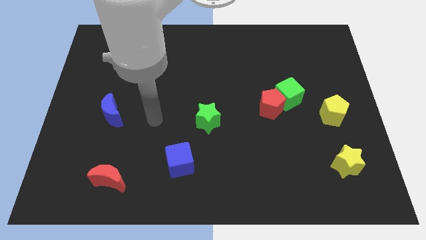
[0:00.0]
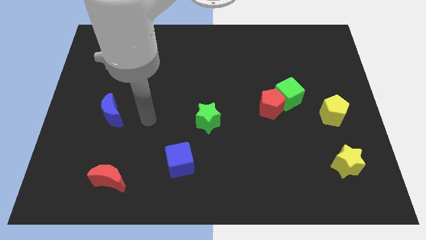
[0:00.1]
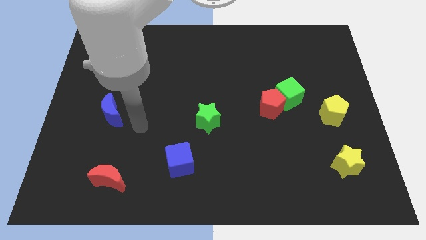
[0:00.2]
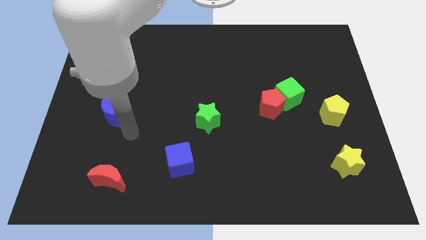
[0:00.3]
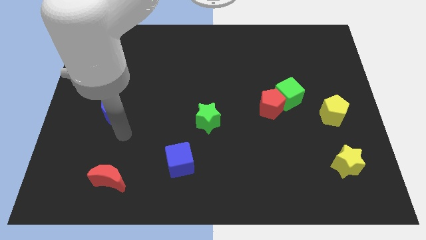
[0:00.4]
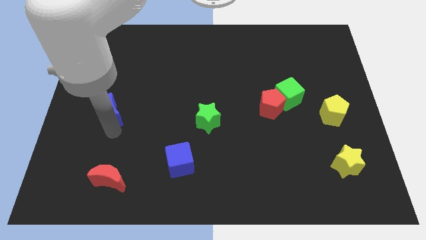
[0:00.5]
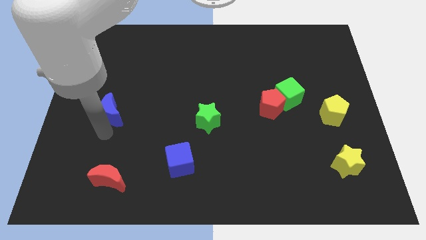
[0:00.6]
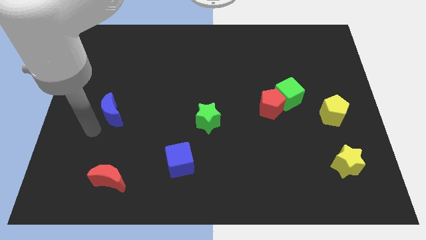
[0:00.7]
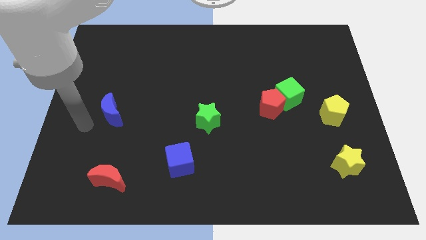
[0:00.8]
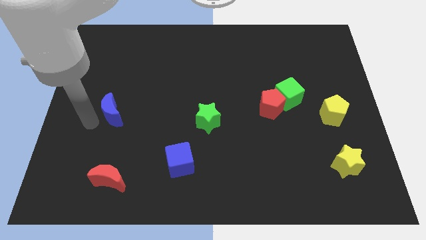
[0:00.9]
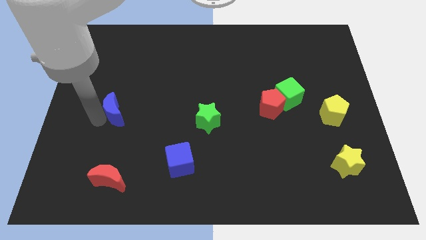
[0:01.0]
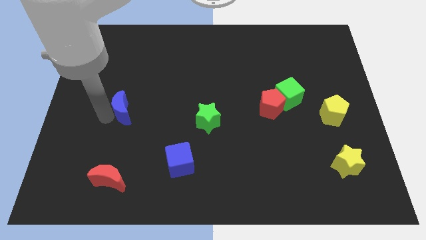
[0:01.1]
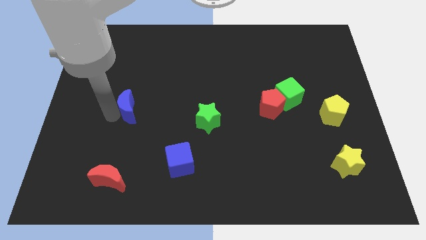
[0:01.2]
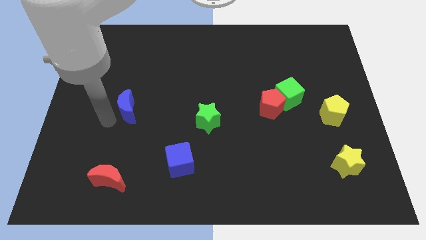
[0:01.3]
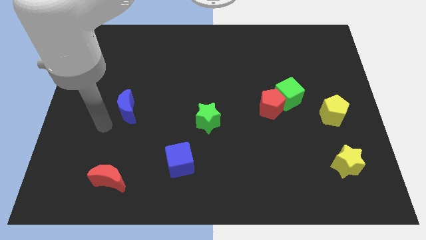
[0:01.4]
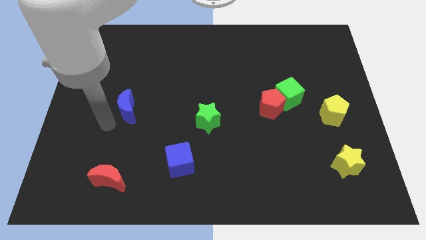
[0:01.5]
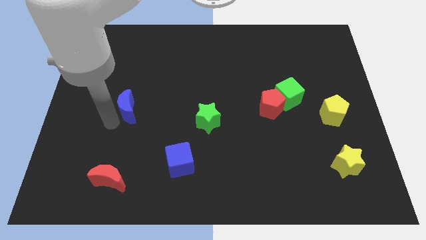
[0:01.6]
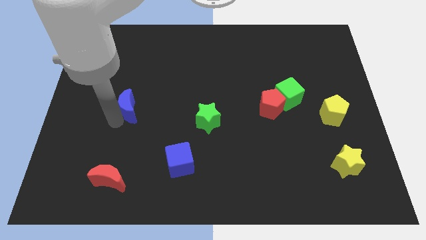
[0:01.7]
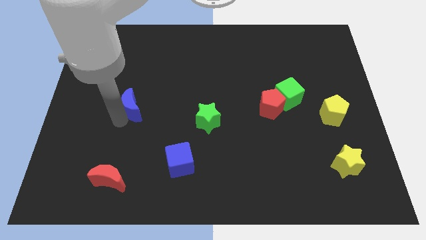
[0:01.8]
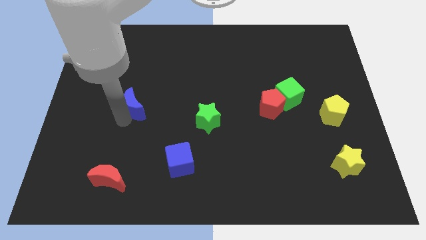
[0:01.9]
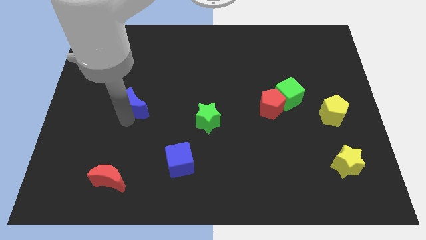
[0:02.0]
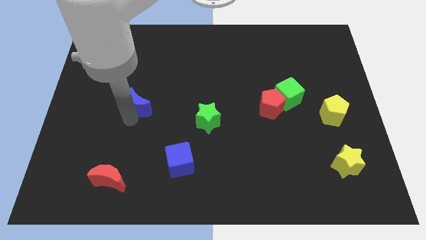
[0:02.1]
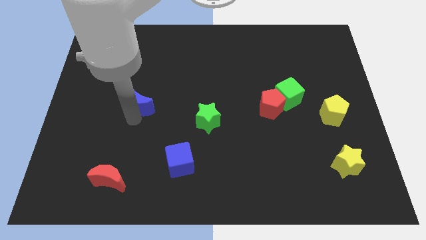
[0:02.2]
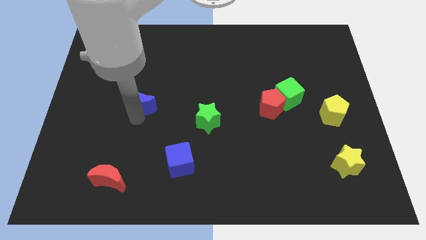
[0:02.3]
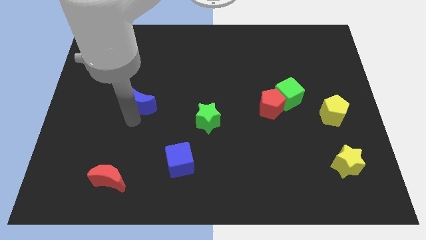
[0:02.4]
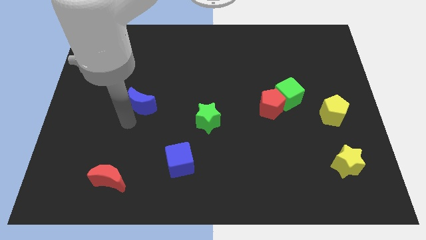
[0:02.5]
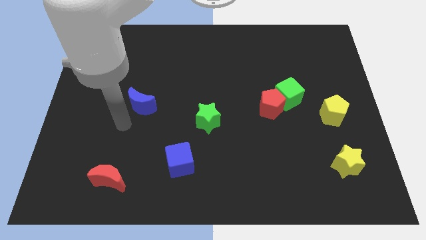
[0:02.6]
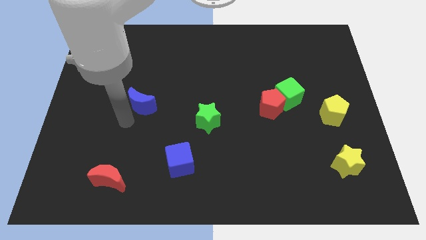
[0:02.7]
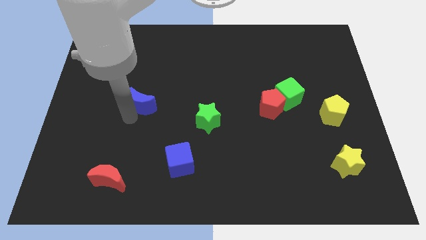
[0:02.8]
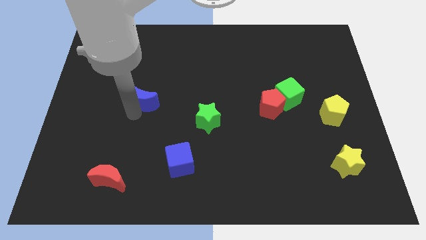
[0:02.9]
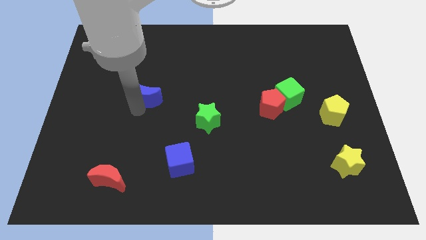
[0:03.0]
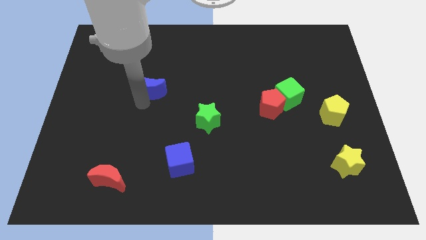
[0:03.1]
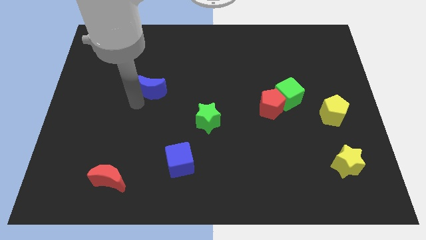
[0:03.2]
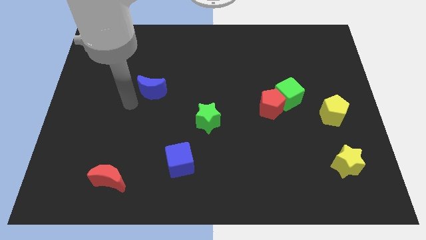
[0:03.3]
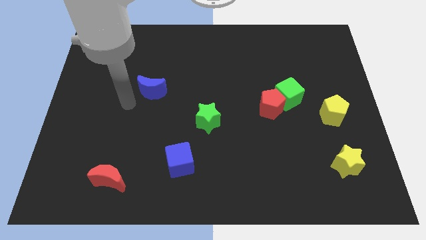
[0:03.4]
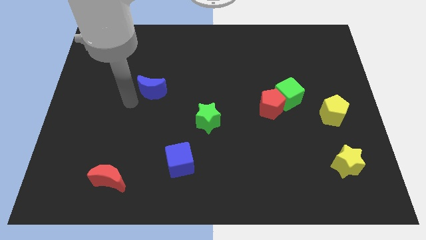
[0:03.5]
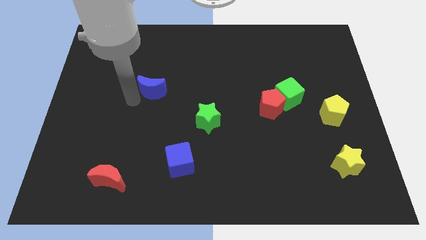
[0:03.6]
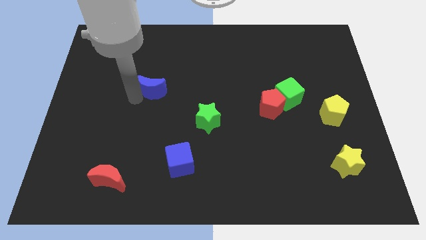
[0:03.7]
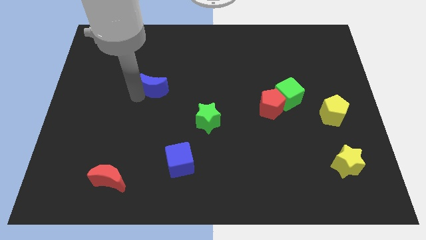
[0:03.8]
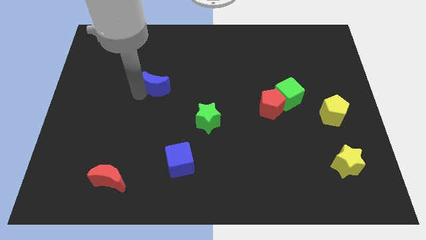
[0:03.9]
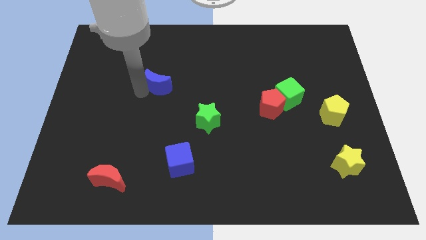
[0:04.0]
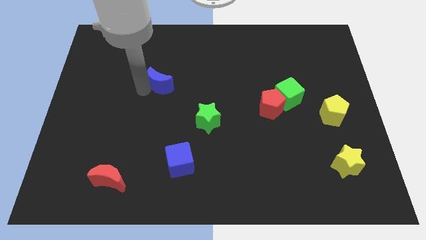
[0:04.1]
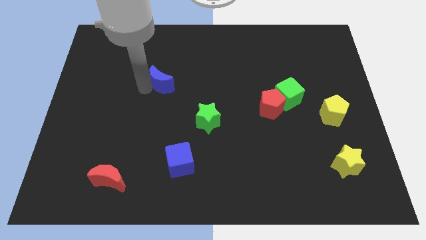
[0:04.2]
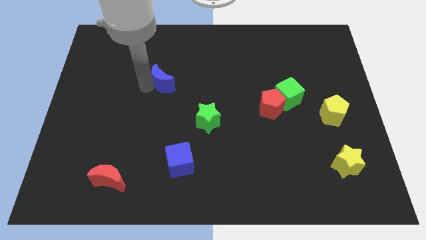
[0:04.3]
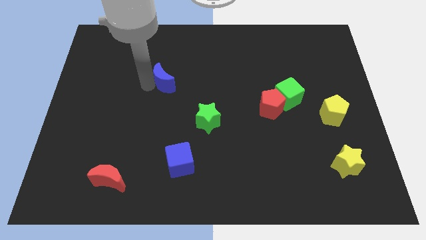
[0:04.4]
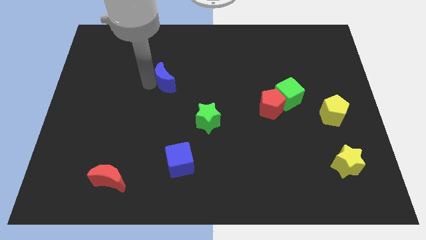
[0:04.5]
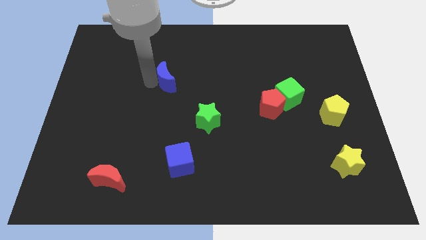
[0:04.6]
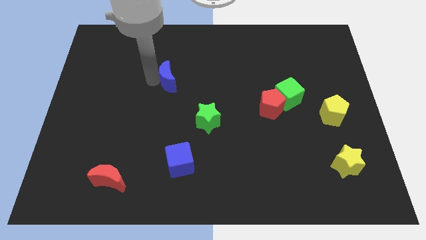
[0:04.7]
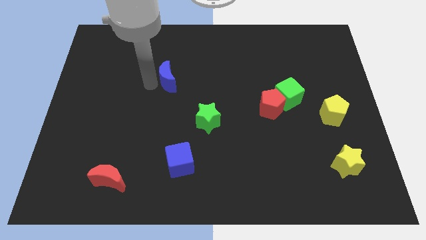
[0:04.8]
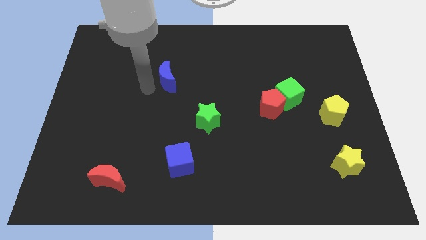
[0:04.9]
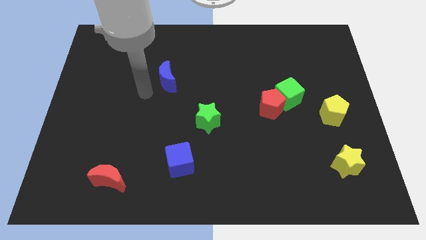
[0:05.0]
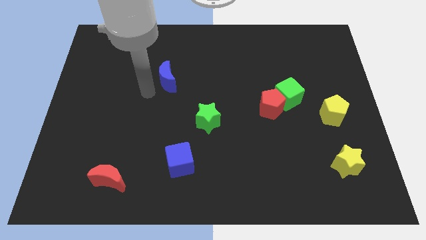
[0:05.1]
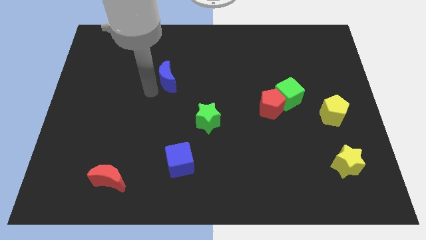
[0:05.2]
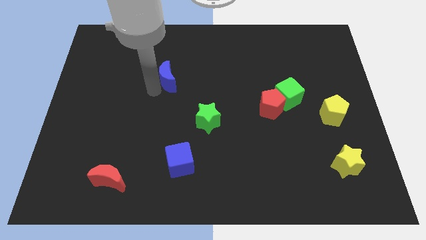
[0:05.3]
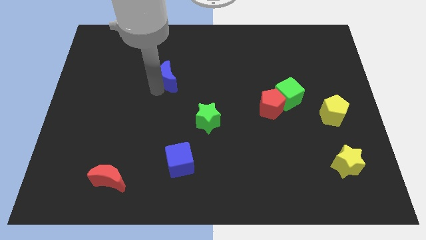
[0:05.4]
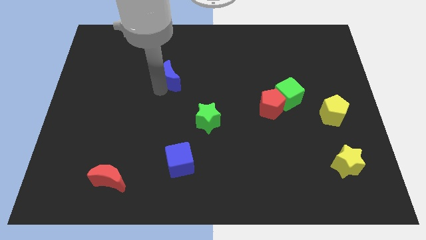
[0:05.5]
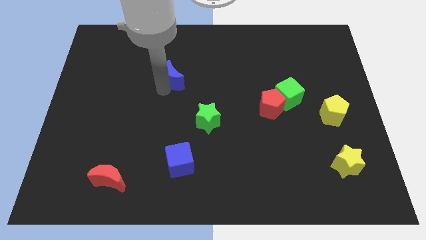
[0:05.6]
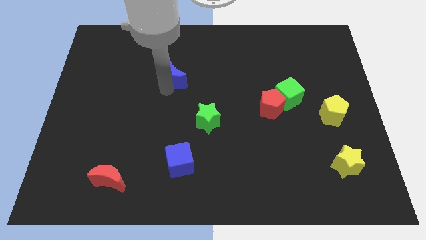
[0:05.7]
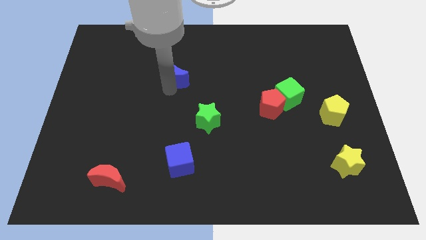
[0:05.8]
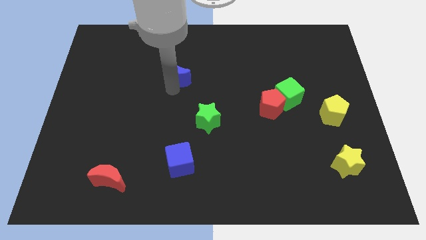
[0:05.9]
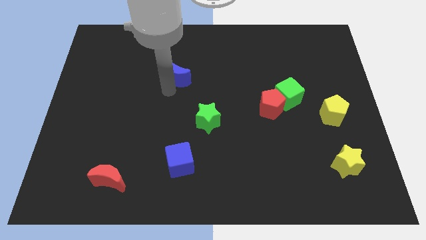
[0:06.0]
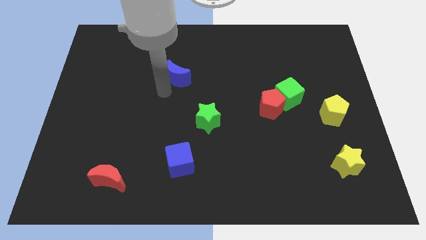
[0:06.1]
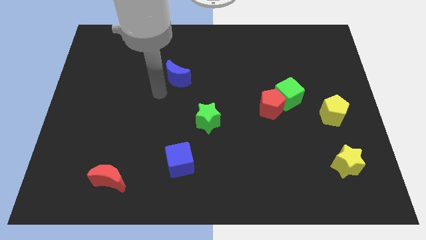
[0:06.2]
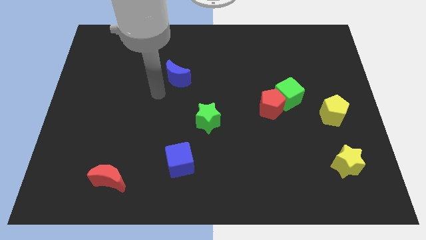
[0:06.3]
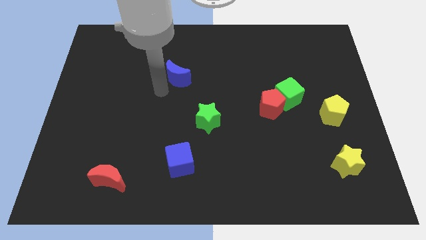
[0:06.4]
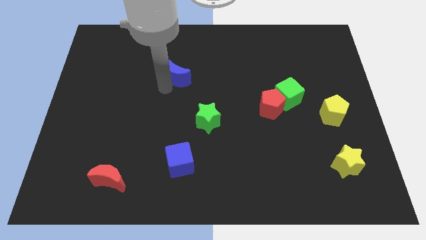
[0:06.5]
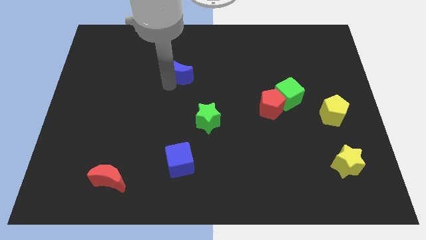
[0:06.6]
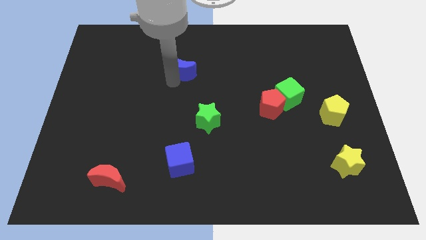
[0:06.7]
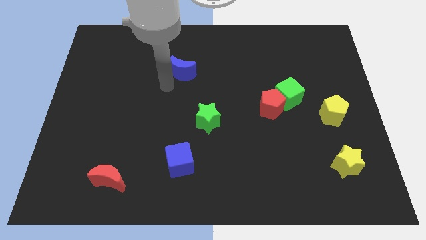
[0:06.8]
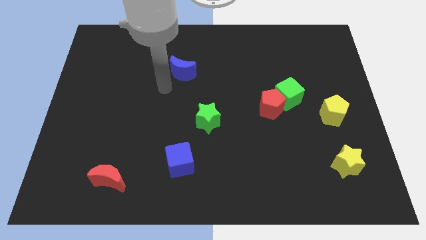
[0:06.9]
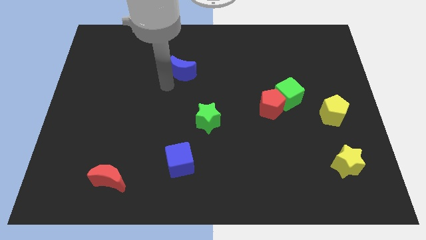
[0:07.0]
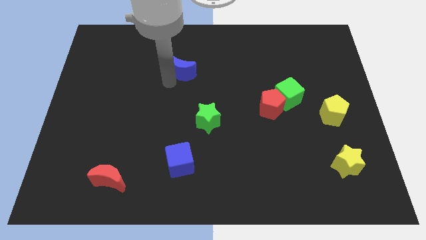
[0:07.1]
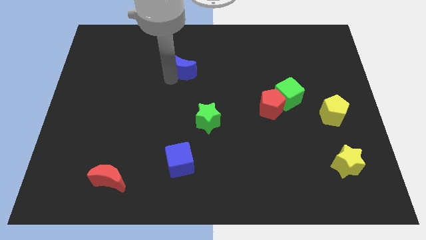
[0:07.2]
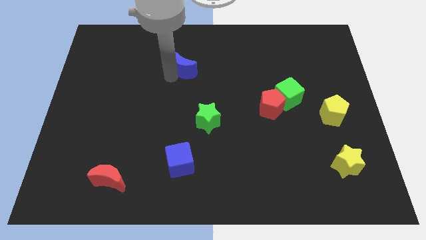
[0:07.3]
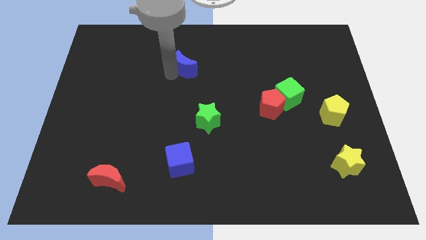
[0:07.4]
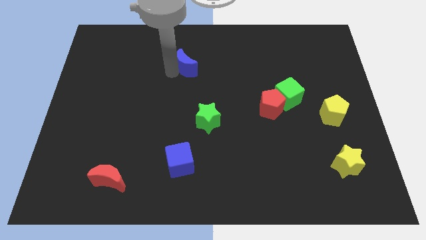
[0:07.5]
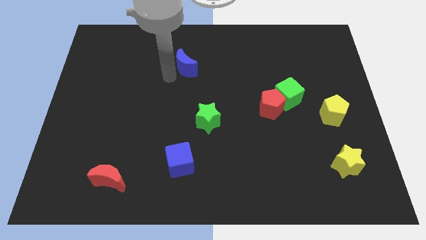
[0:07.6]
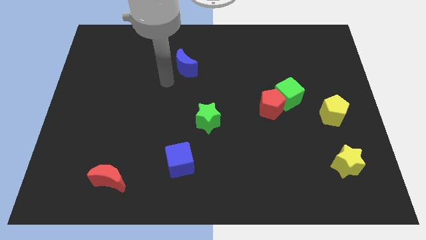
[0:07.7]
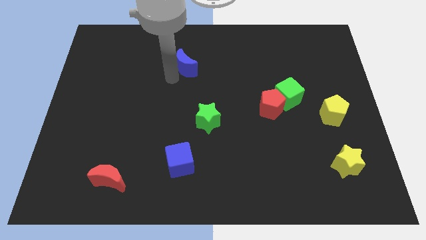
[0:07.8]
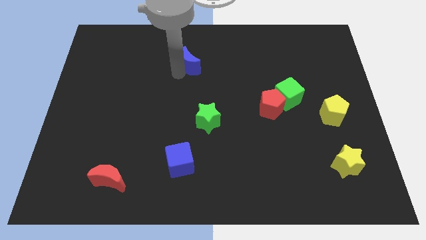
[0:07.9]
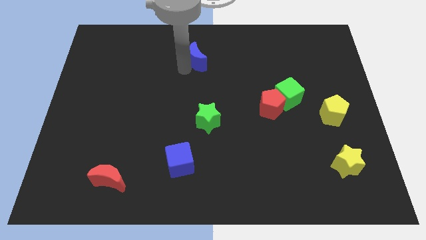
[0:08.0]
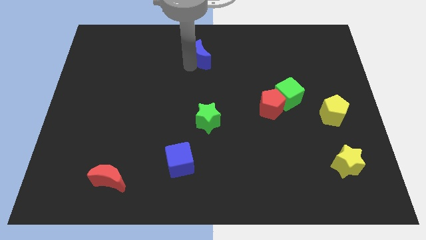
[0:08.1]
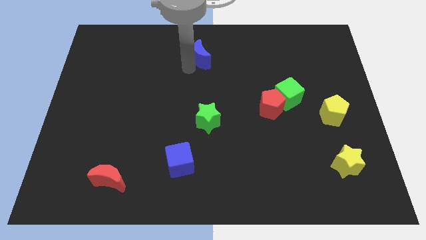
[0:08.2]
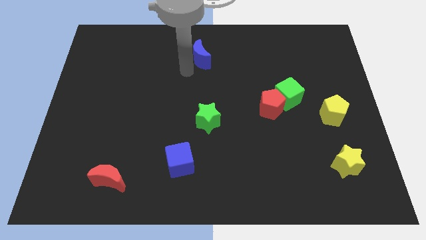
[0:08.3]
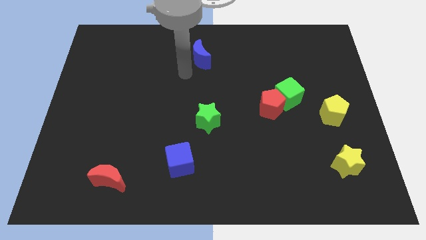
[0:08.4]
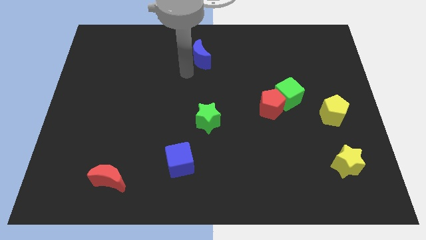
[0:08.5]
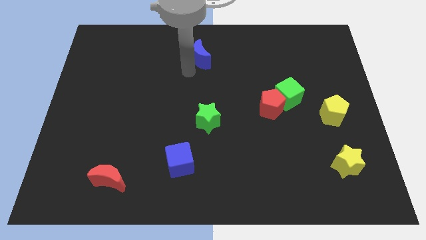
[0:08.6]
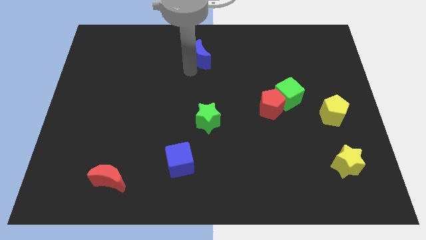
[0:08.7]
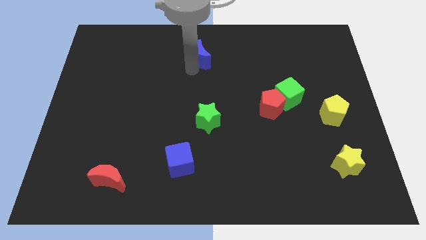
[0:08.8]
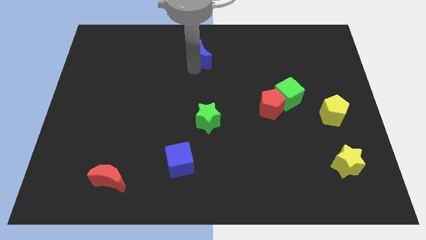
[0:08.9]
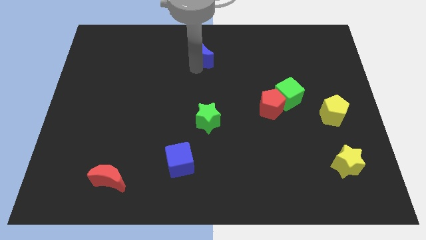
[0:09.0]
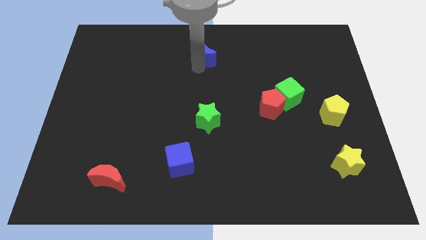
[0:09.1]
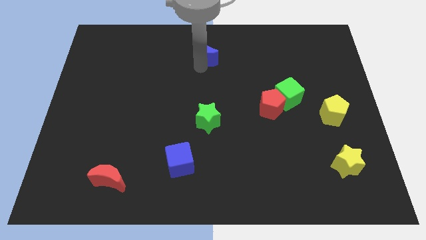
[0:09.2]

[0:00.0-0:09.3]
put the blue moon to the towards your base
